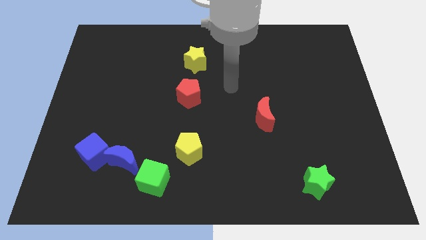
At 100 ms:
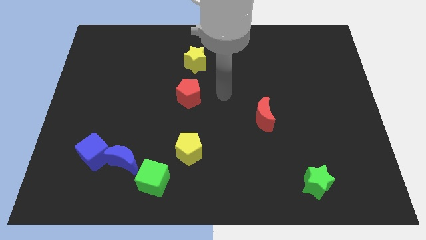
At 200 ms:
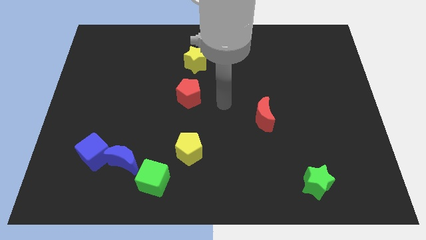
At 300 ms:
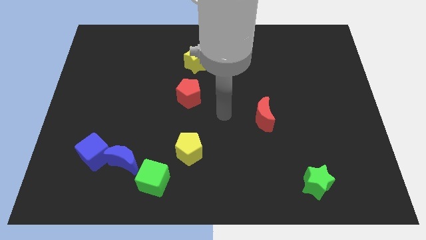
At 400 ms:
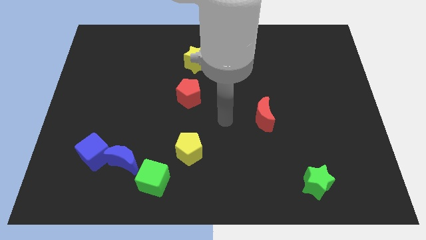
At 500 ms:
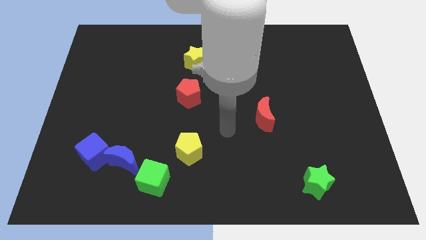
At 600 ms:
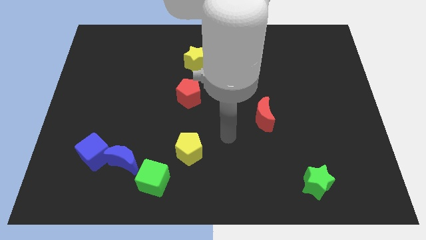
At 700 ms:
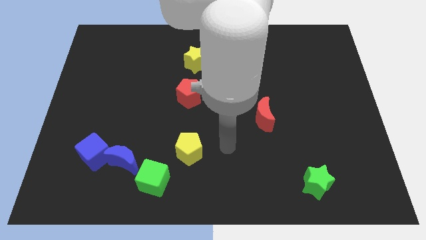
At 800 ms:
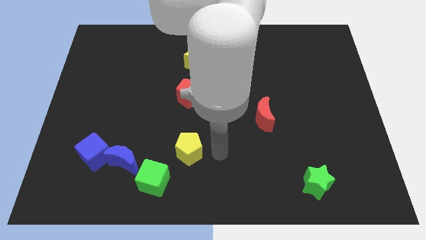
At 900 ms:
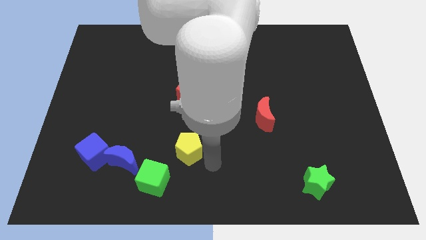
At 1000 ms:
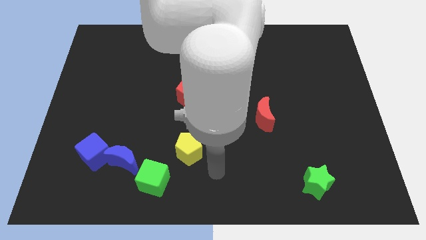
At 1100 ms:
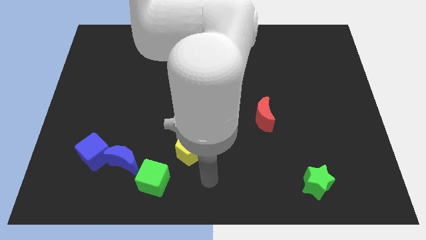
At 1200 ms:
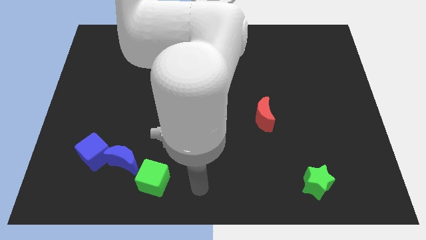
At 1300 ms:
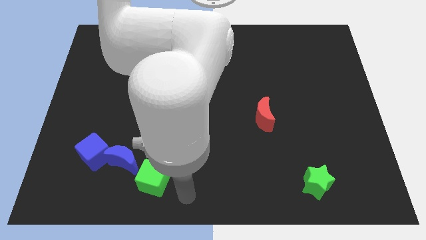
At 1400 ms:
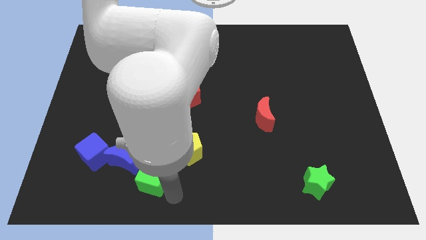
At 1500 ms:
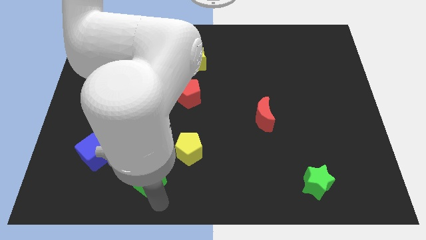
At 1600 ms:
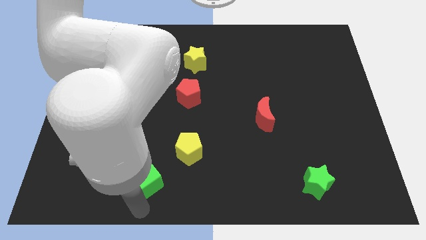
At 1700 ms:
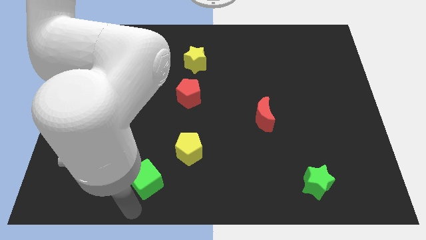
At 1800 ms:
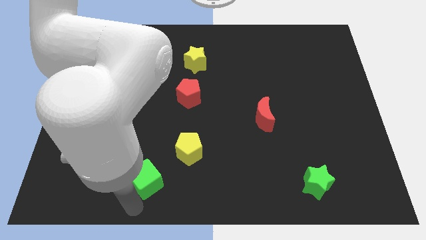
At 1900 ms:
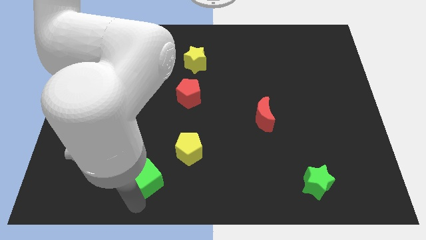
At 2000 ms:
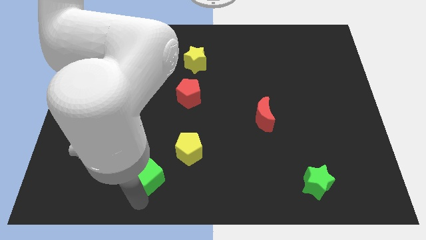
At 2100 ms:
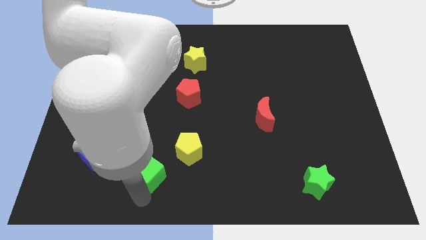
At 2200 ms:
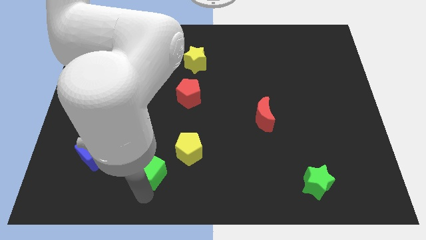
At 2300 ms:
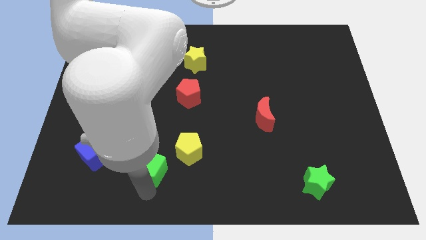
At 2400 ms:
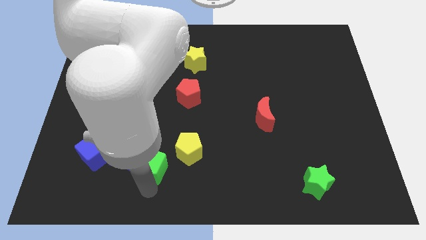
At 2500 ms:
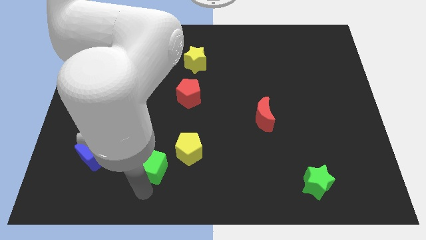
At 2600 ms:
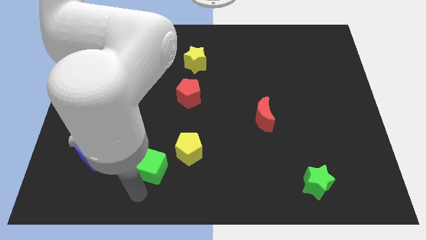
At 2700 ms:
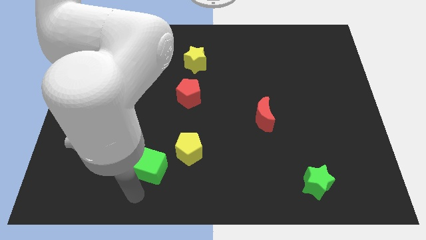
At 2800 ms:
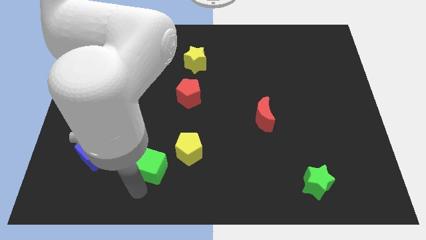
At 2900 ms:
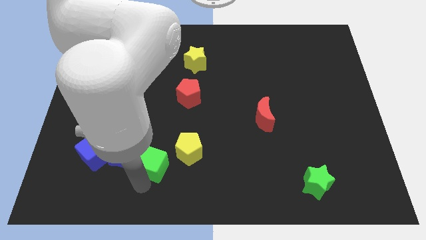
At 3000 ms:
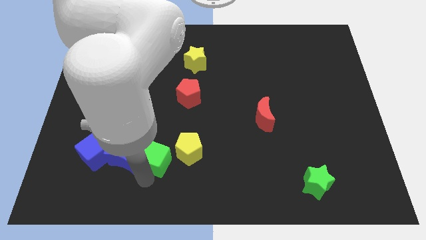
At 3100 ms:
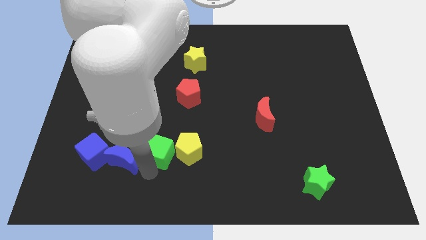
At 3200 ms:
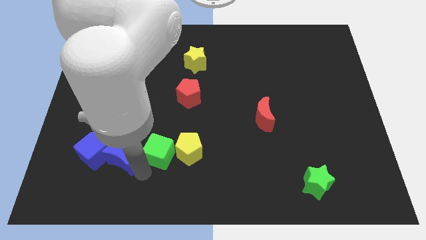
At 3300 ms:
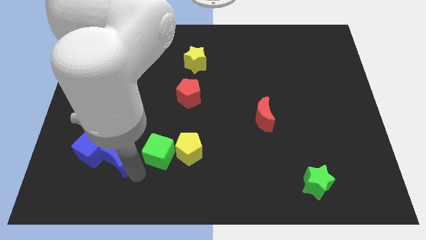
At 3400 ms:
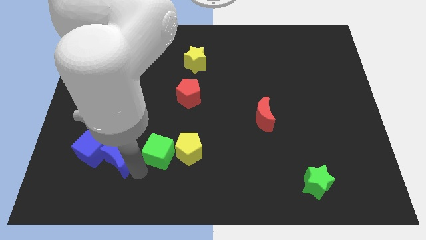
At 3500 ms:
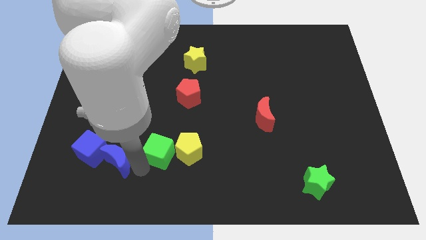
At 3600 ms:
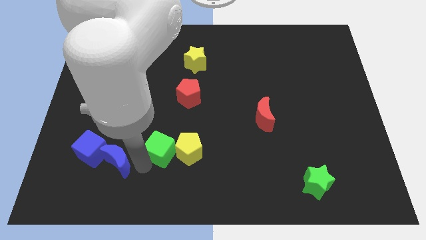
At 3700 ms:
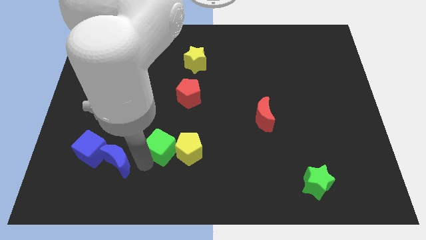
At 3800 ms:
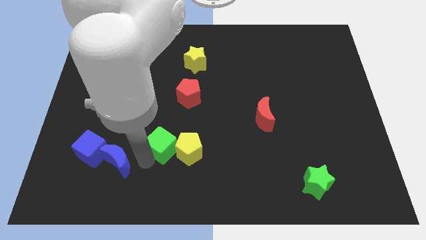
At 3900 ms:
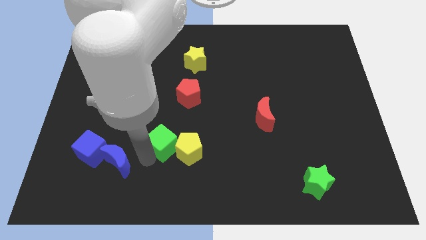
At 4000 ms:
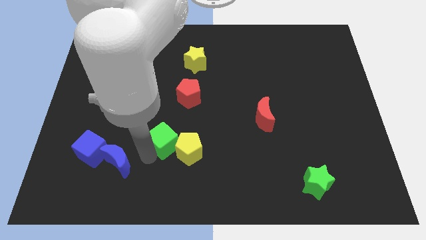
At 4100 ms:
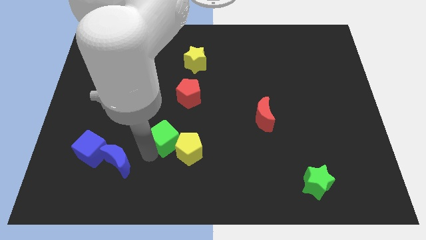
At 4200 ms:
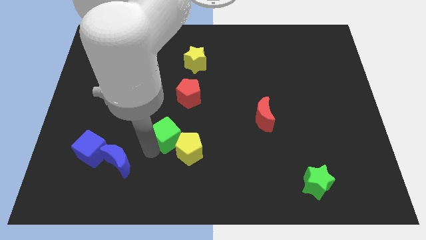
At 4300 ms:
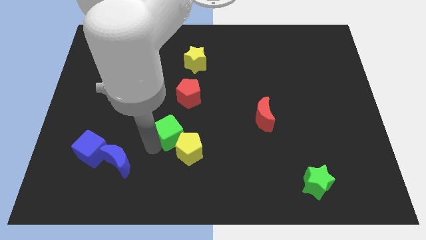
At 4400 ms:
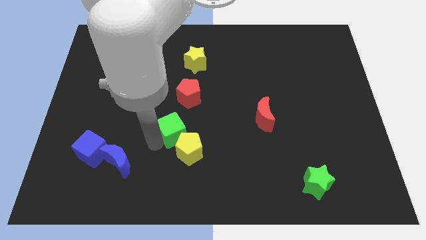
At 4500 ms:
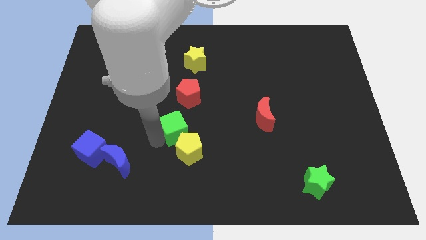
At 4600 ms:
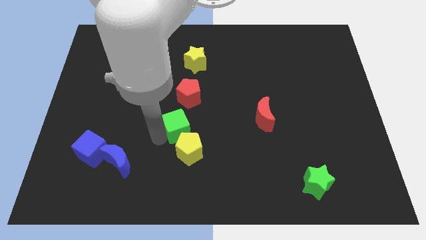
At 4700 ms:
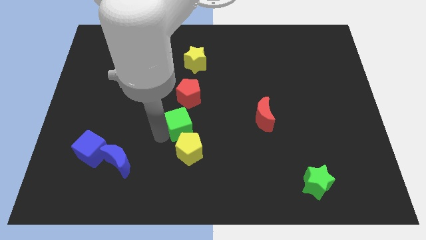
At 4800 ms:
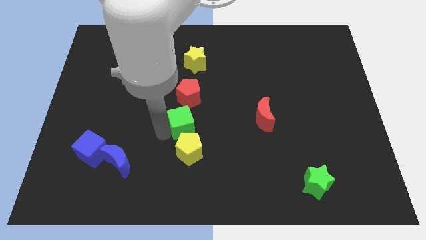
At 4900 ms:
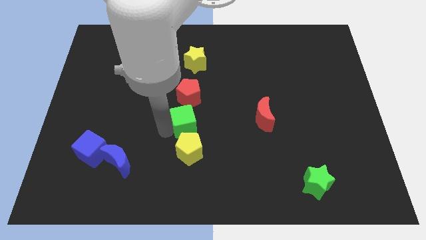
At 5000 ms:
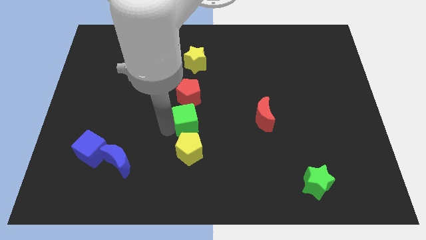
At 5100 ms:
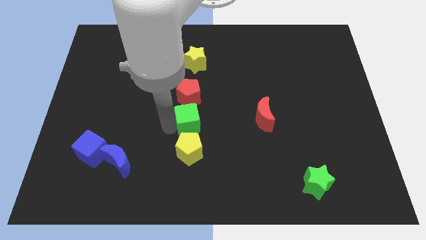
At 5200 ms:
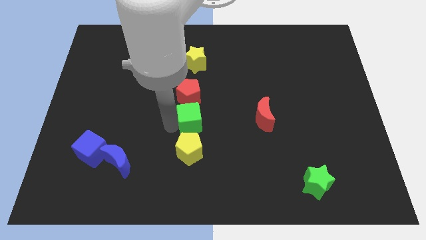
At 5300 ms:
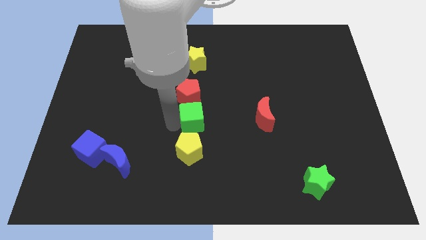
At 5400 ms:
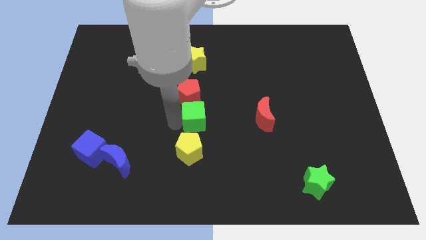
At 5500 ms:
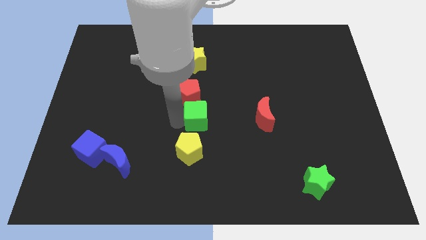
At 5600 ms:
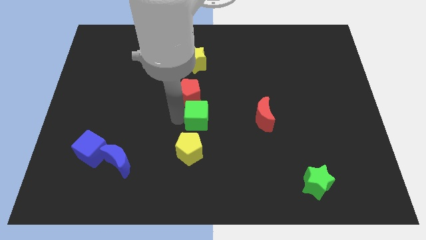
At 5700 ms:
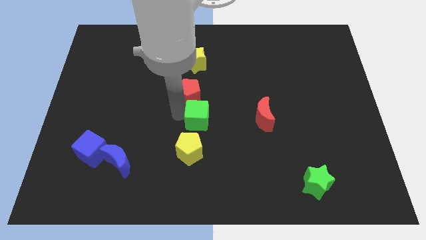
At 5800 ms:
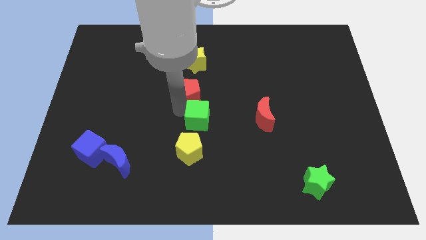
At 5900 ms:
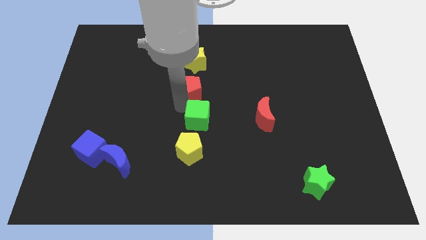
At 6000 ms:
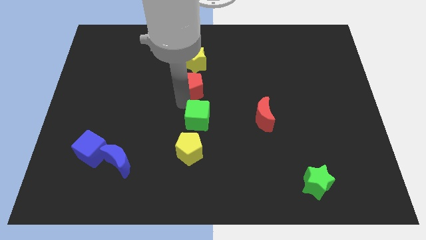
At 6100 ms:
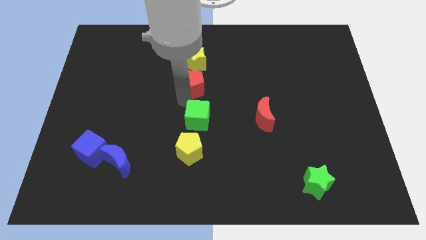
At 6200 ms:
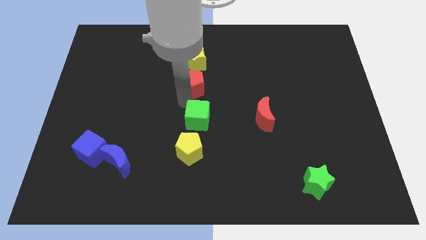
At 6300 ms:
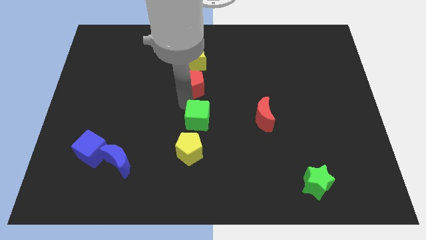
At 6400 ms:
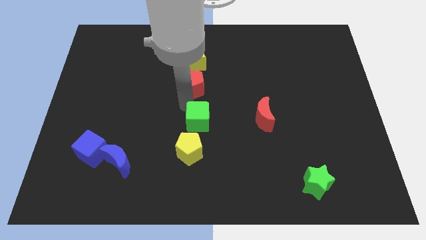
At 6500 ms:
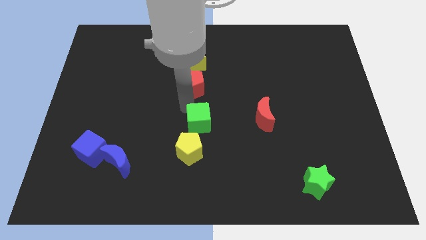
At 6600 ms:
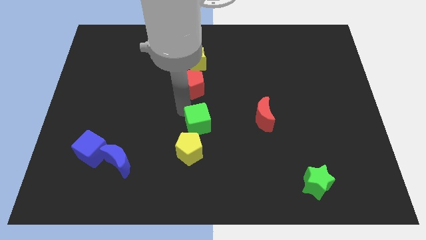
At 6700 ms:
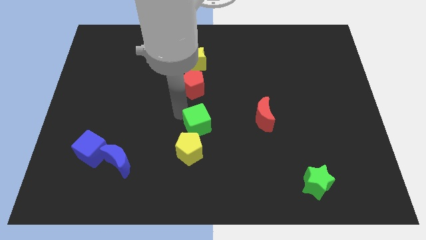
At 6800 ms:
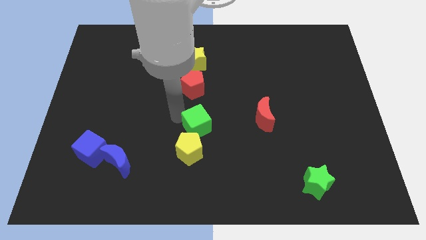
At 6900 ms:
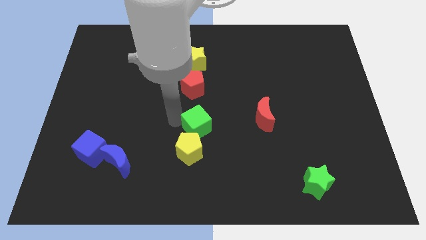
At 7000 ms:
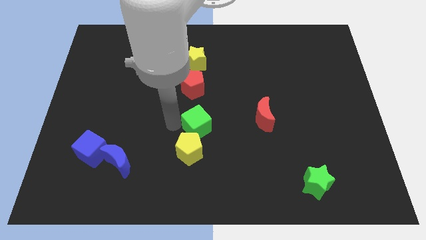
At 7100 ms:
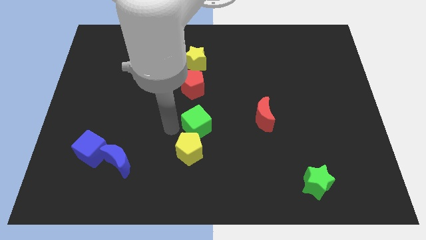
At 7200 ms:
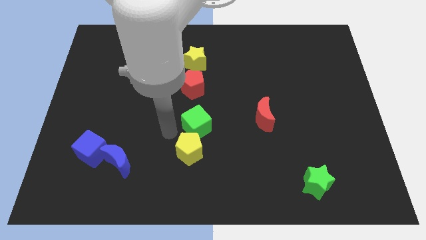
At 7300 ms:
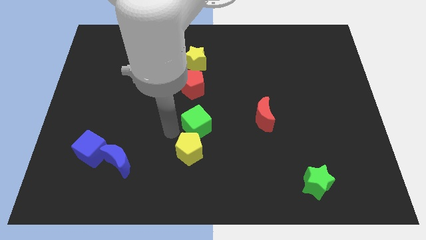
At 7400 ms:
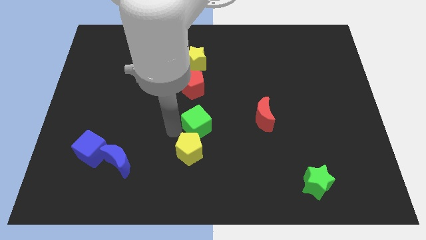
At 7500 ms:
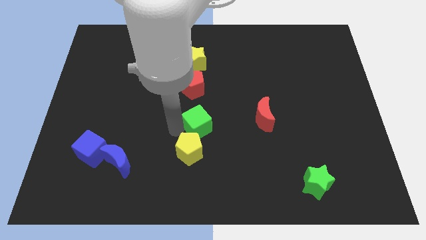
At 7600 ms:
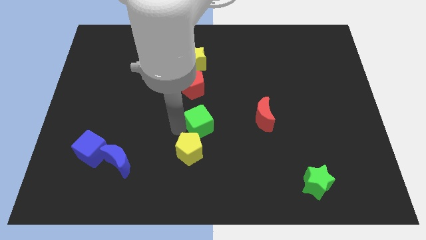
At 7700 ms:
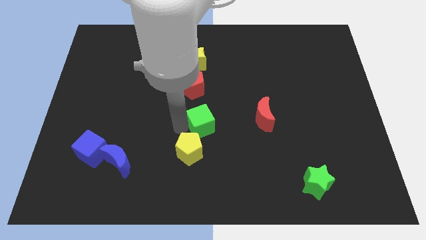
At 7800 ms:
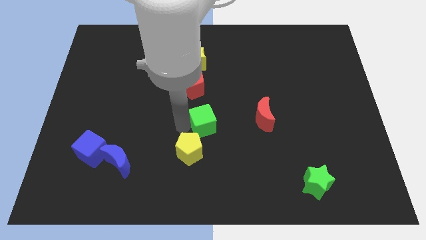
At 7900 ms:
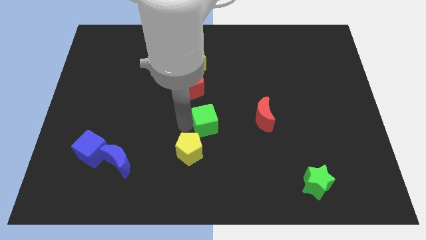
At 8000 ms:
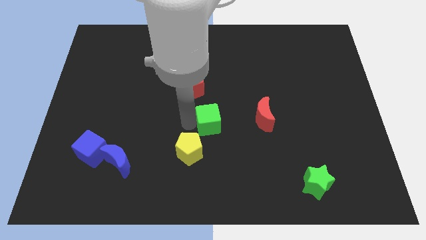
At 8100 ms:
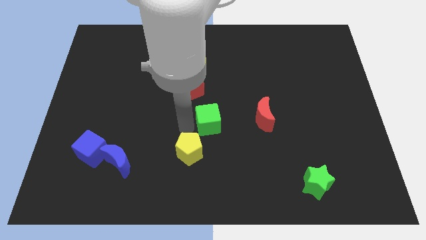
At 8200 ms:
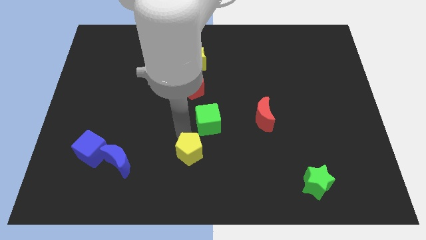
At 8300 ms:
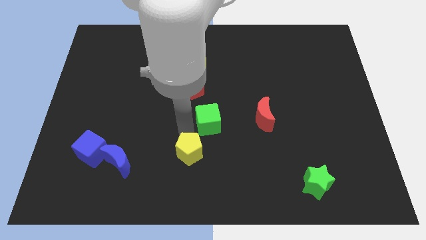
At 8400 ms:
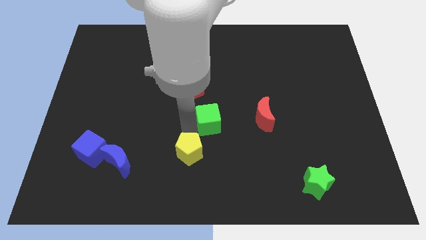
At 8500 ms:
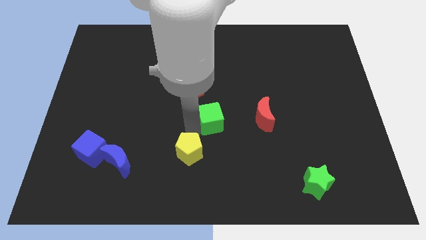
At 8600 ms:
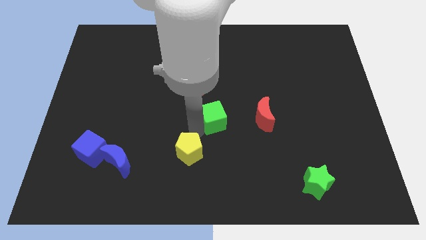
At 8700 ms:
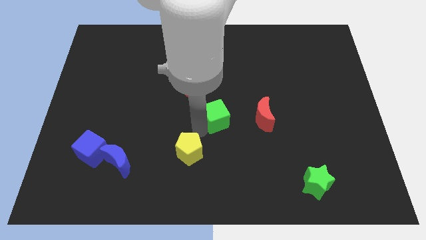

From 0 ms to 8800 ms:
move the green cube upwards and then to the right
